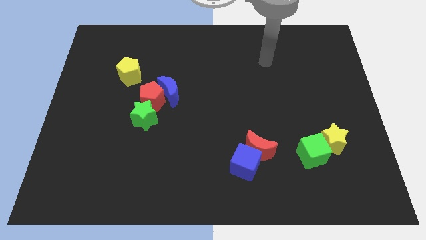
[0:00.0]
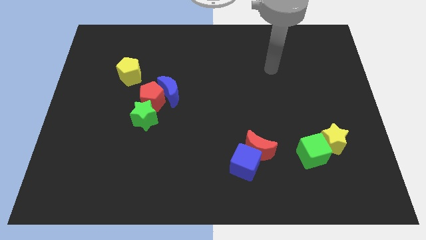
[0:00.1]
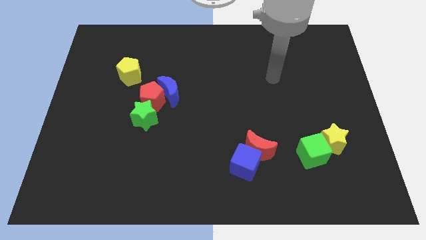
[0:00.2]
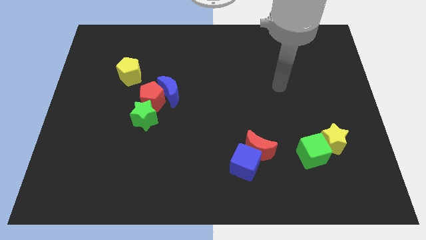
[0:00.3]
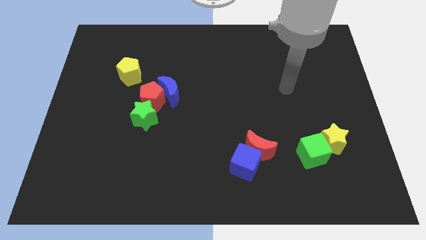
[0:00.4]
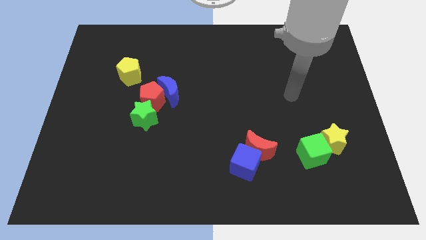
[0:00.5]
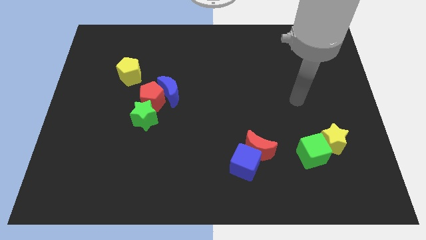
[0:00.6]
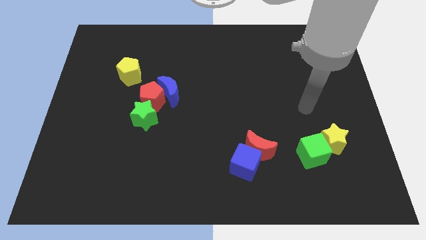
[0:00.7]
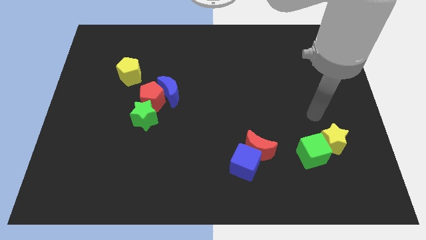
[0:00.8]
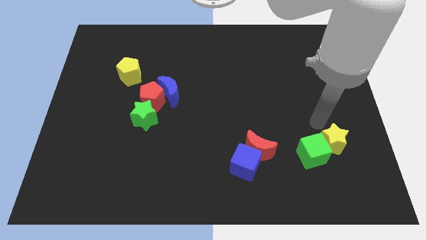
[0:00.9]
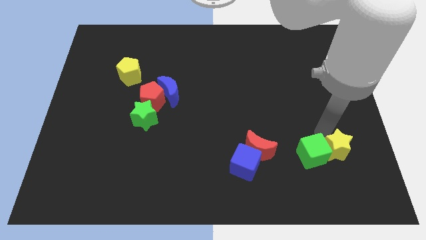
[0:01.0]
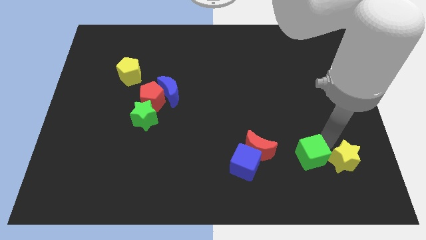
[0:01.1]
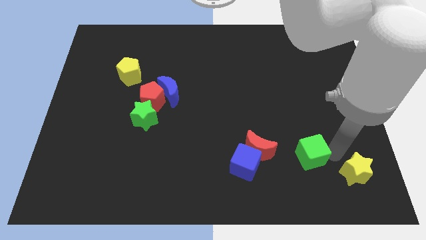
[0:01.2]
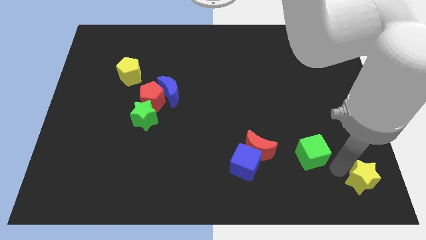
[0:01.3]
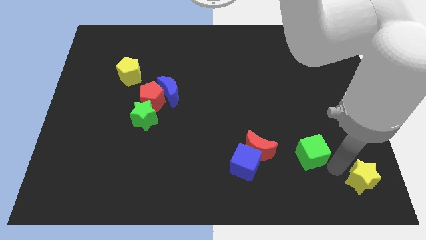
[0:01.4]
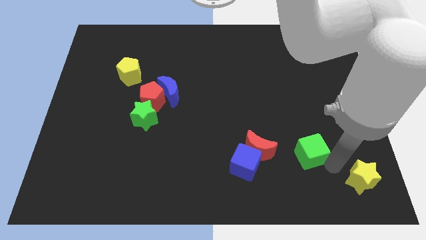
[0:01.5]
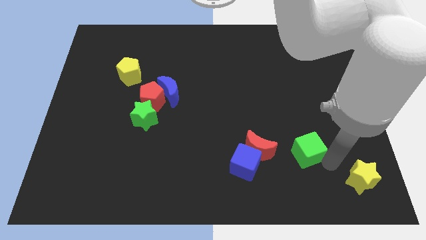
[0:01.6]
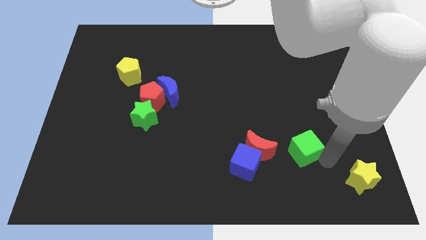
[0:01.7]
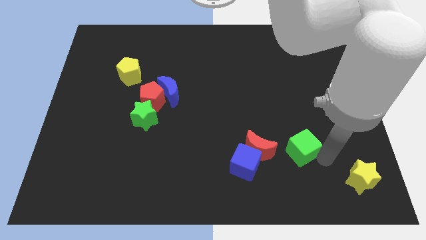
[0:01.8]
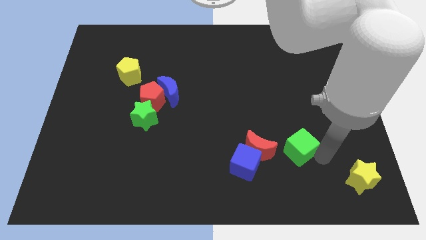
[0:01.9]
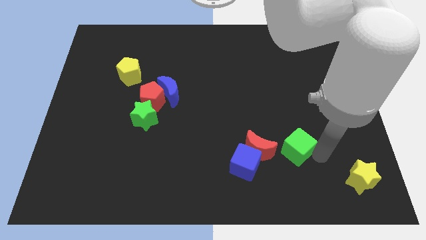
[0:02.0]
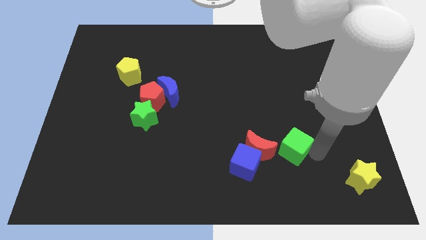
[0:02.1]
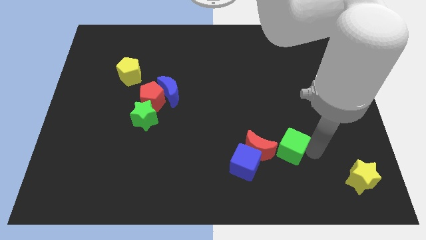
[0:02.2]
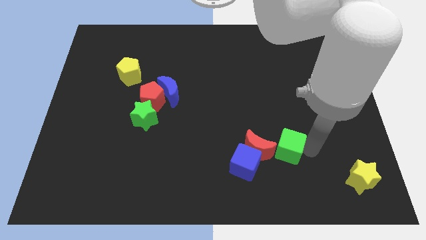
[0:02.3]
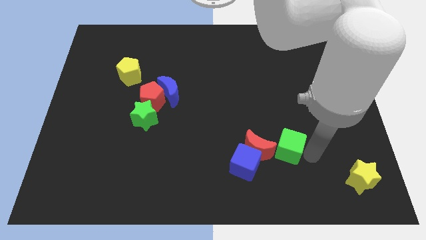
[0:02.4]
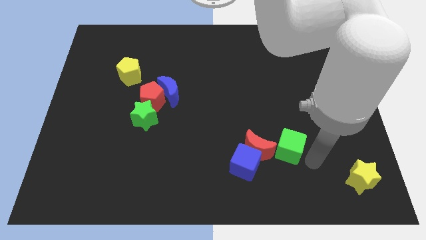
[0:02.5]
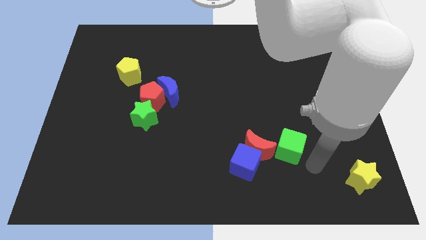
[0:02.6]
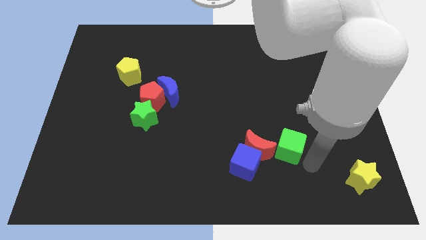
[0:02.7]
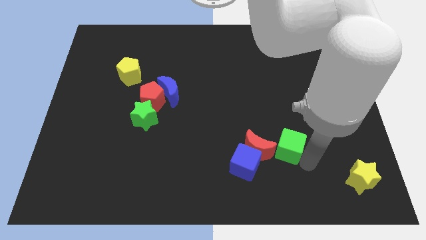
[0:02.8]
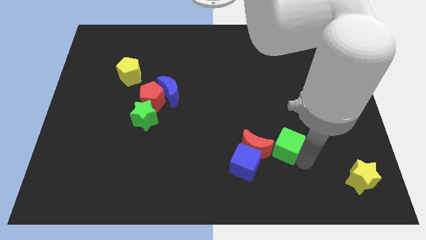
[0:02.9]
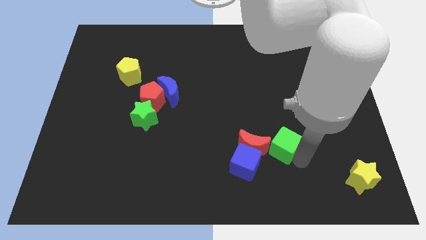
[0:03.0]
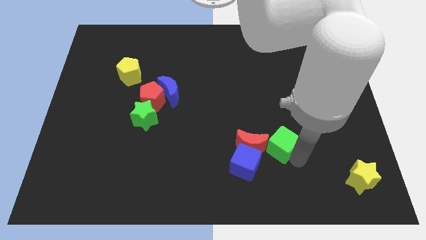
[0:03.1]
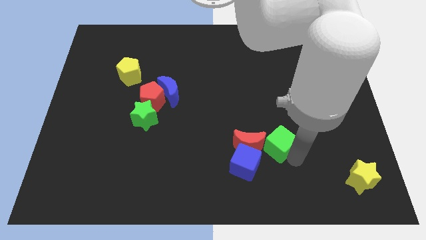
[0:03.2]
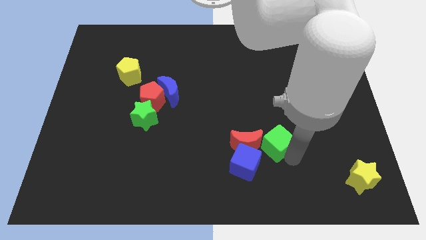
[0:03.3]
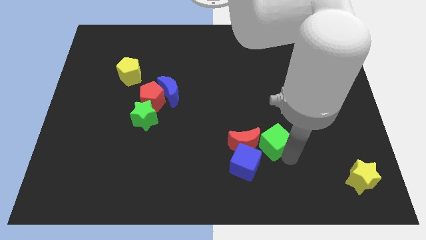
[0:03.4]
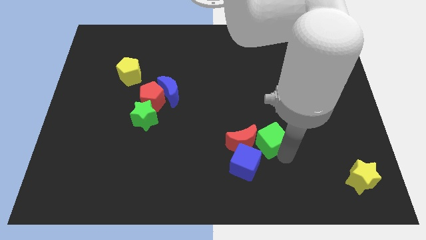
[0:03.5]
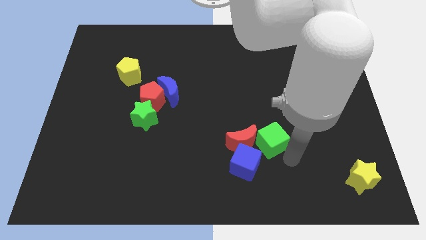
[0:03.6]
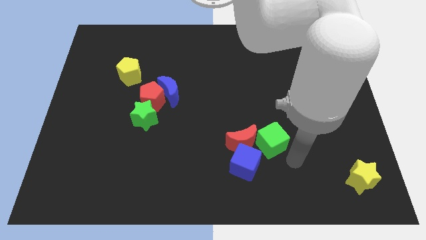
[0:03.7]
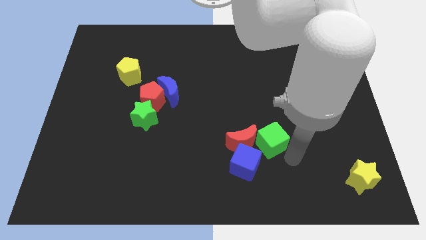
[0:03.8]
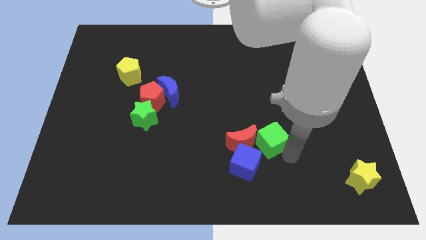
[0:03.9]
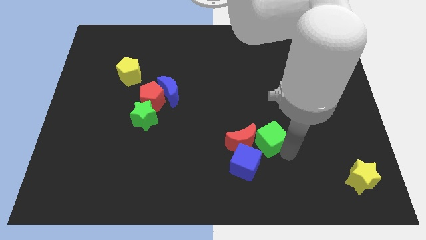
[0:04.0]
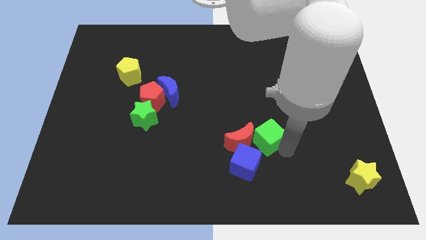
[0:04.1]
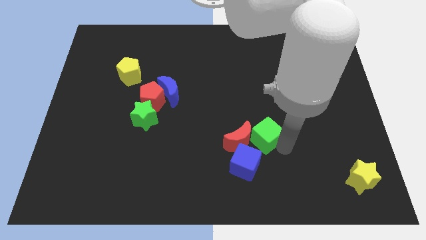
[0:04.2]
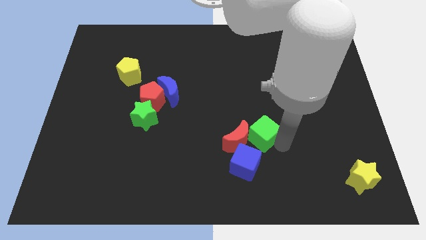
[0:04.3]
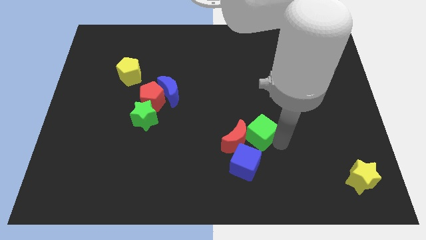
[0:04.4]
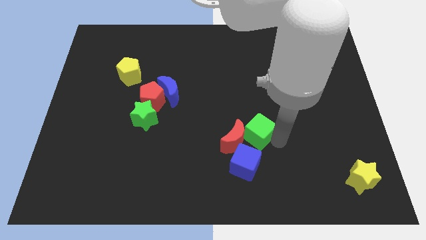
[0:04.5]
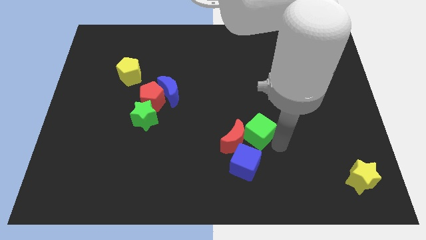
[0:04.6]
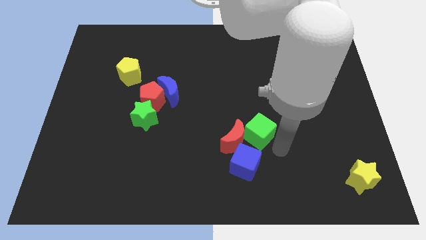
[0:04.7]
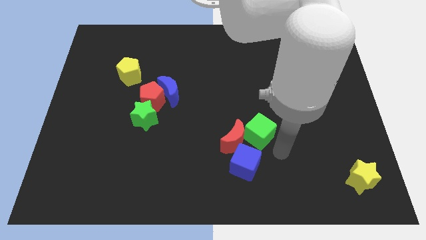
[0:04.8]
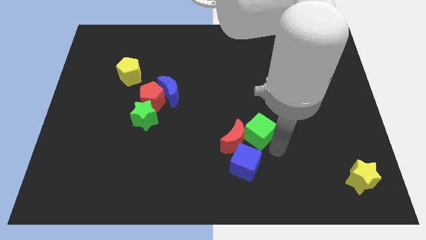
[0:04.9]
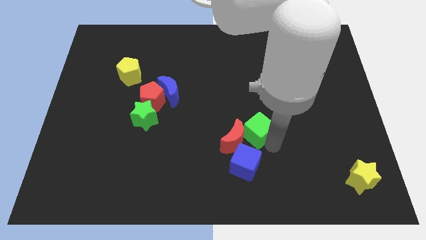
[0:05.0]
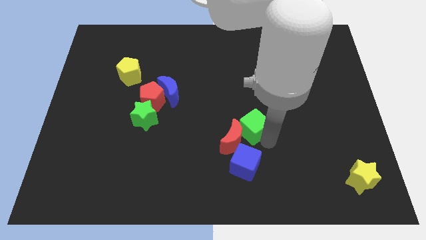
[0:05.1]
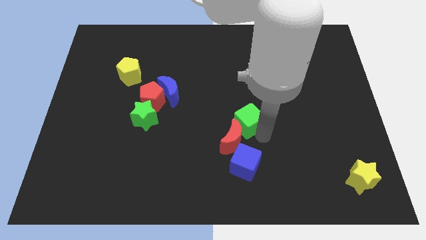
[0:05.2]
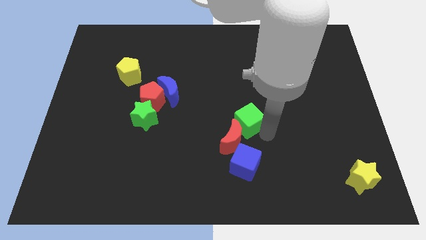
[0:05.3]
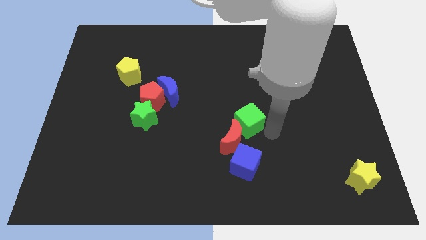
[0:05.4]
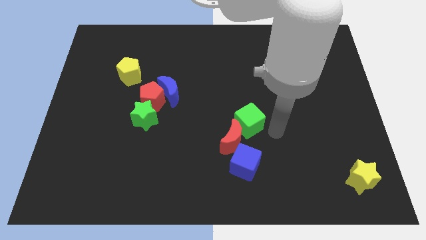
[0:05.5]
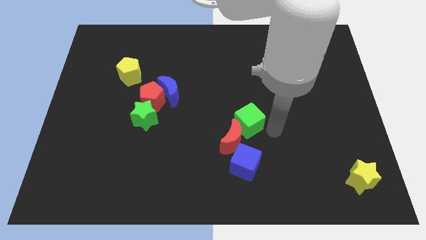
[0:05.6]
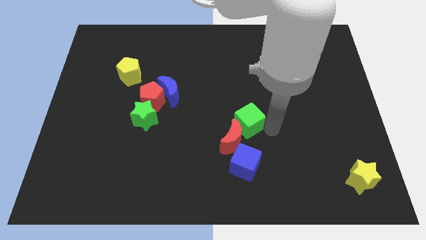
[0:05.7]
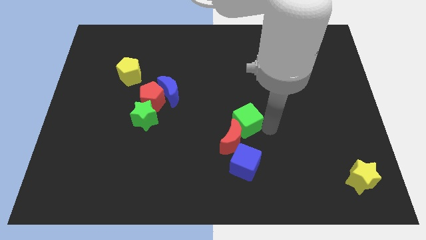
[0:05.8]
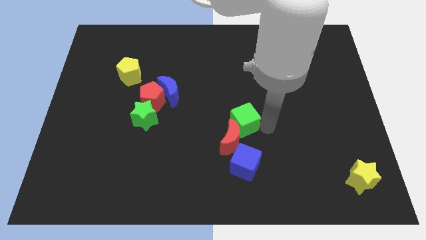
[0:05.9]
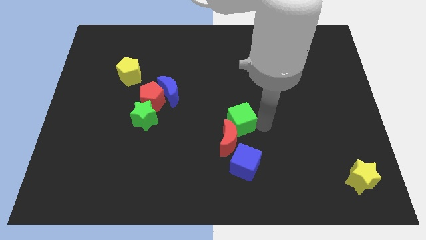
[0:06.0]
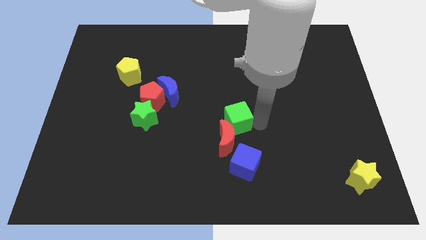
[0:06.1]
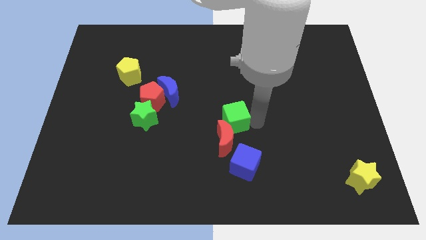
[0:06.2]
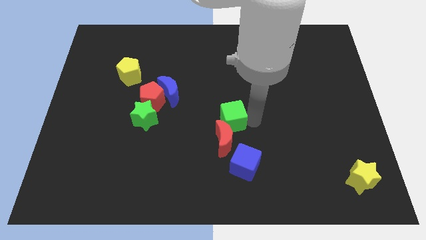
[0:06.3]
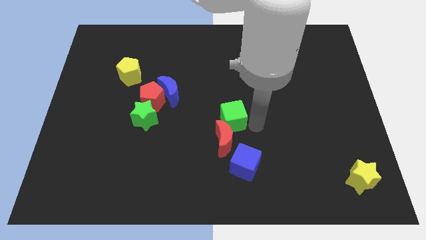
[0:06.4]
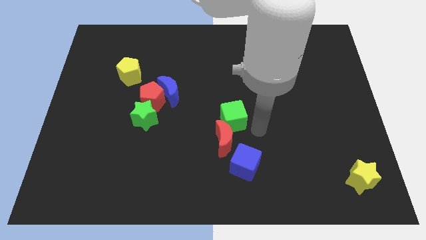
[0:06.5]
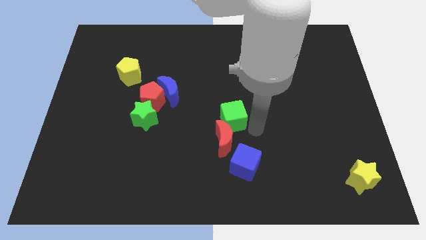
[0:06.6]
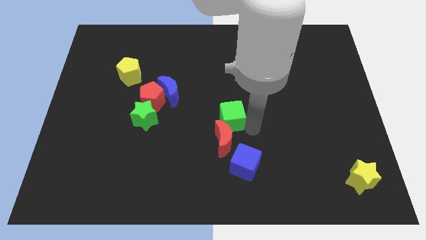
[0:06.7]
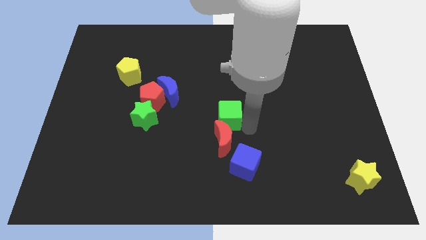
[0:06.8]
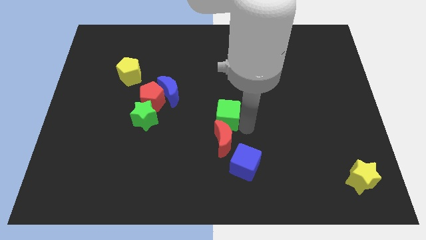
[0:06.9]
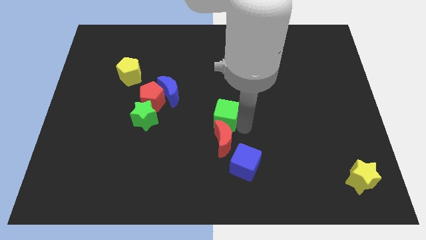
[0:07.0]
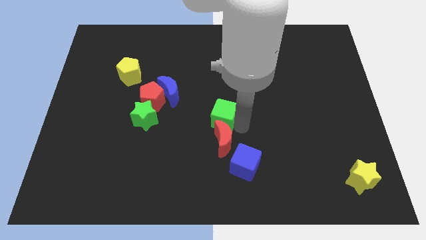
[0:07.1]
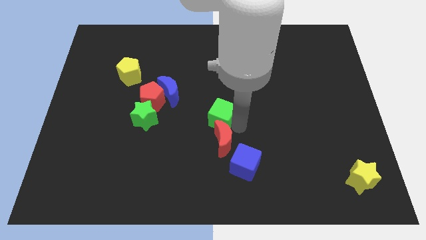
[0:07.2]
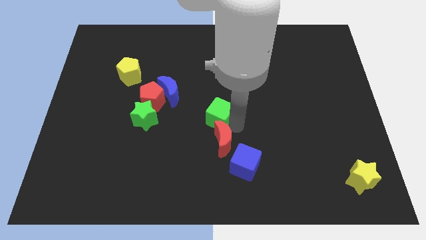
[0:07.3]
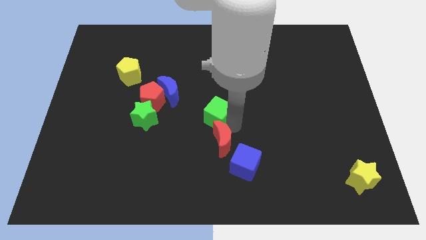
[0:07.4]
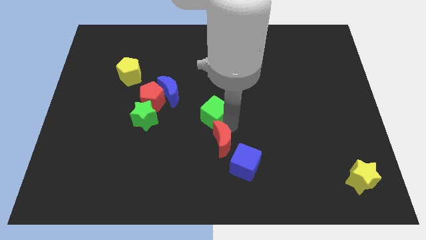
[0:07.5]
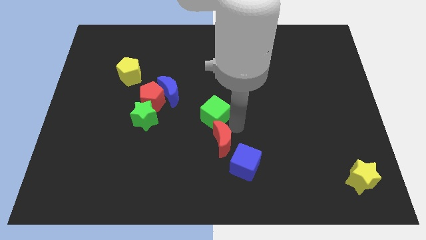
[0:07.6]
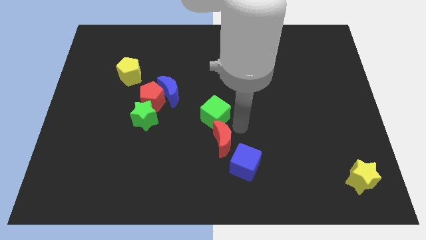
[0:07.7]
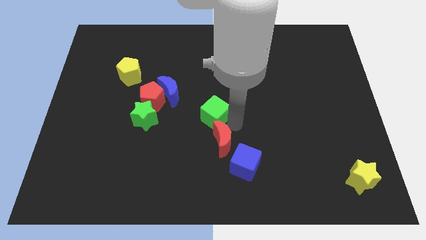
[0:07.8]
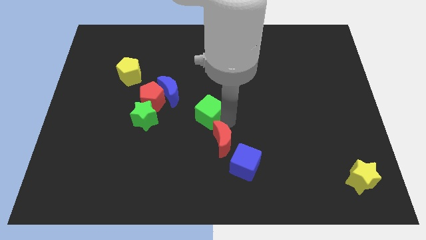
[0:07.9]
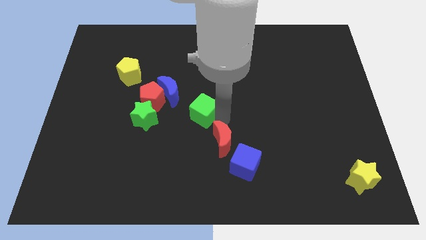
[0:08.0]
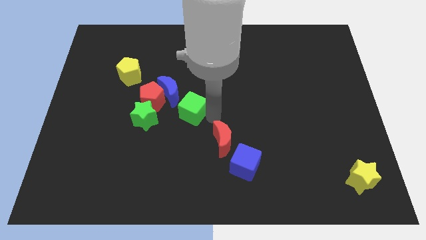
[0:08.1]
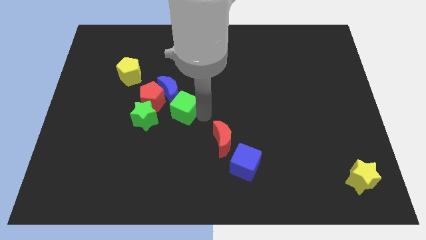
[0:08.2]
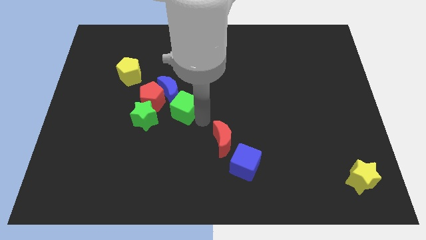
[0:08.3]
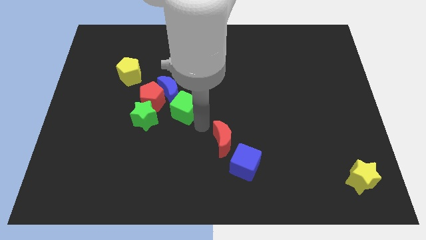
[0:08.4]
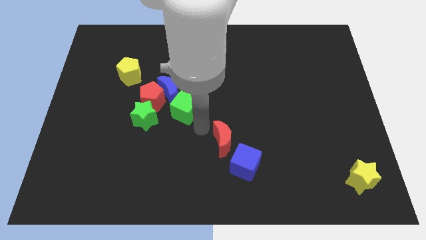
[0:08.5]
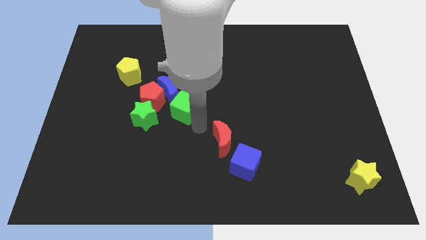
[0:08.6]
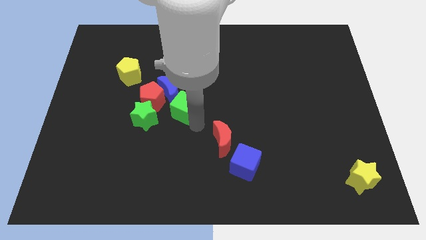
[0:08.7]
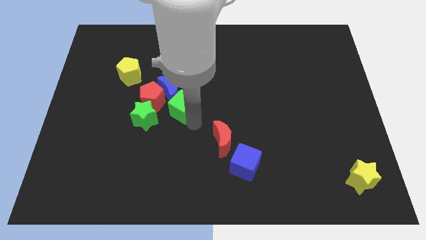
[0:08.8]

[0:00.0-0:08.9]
slide the green cube next to the blue moon
